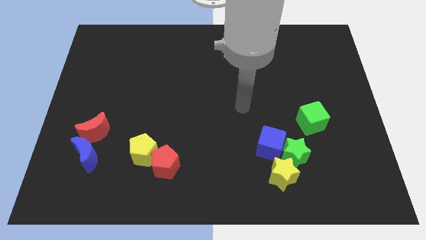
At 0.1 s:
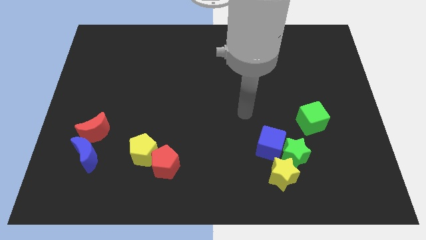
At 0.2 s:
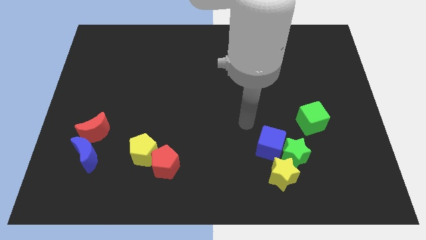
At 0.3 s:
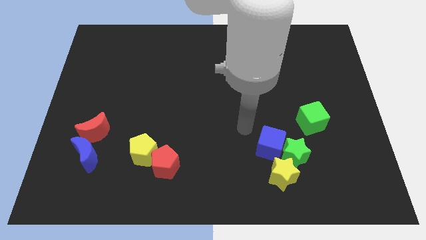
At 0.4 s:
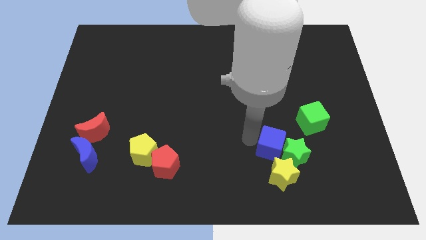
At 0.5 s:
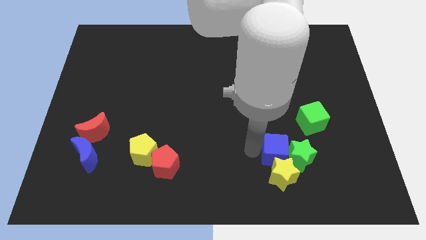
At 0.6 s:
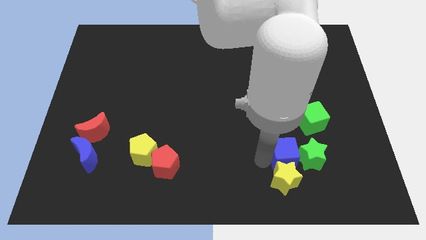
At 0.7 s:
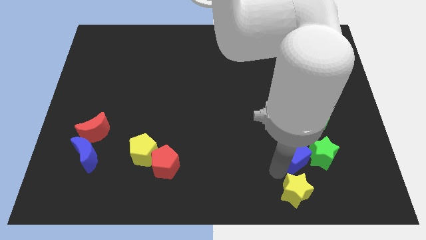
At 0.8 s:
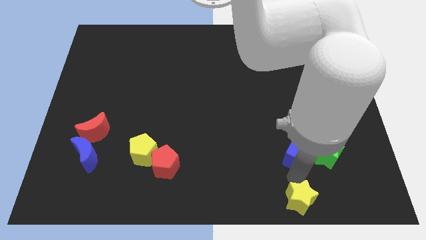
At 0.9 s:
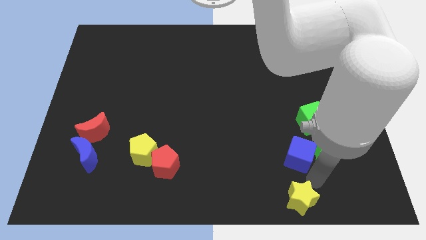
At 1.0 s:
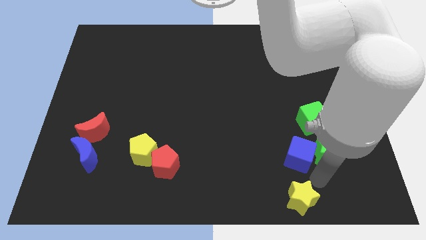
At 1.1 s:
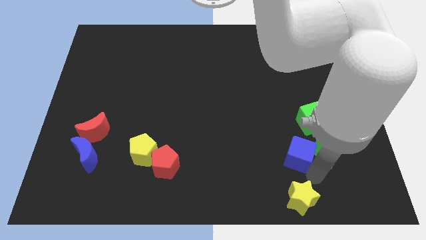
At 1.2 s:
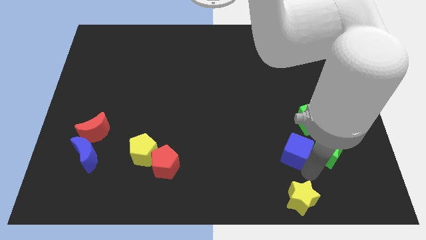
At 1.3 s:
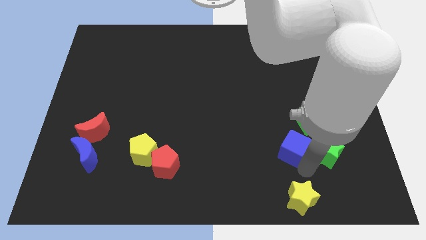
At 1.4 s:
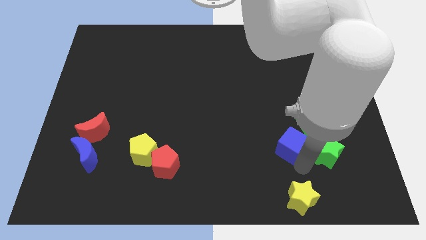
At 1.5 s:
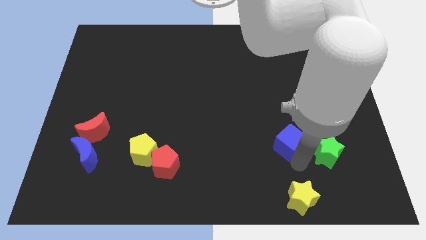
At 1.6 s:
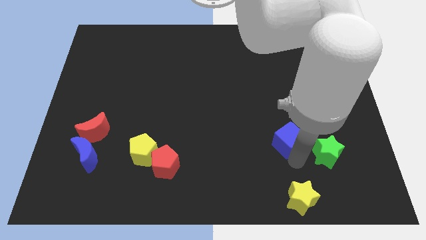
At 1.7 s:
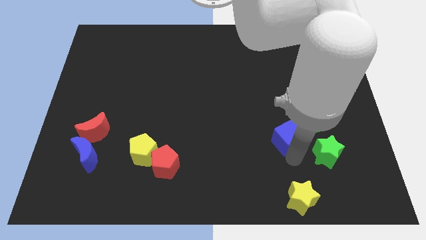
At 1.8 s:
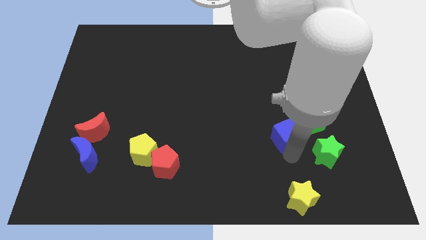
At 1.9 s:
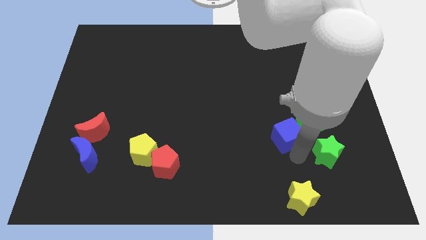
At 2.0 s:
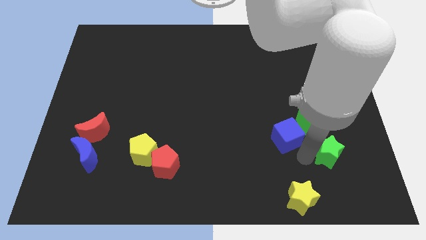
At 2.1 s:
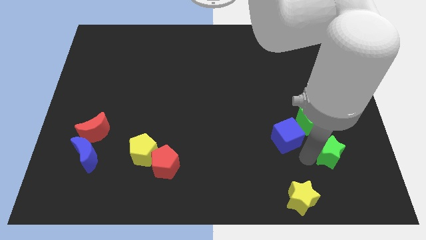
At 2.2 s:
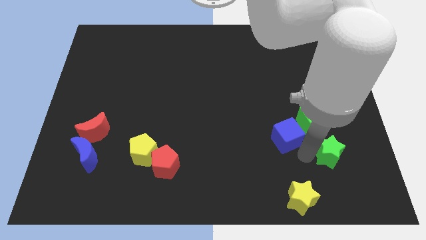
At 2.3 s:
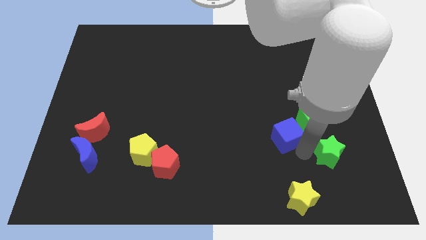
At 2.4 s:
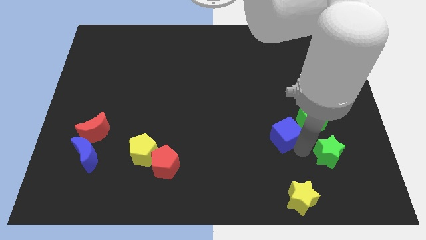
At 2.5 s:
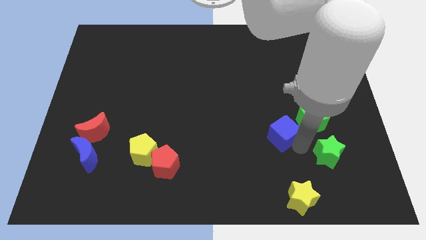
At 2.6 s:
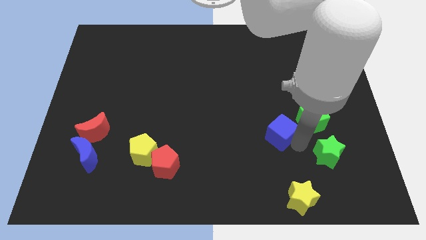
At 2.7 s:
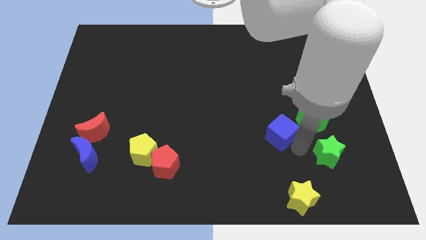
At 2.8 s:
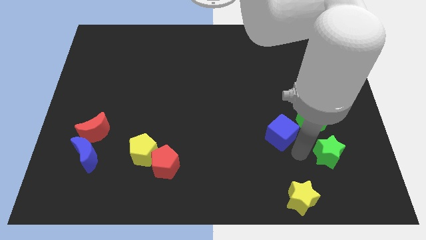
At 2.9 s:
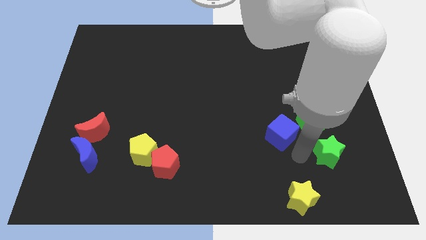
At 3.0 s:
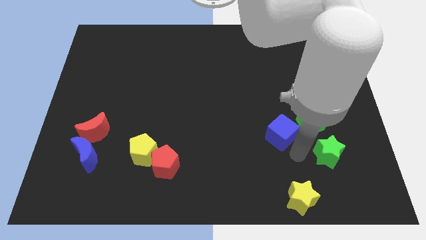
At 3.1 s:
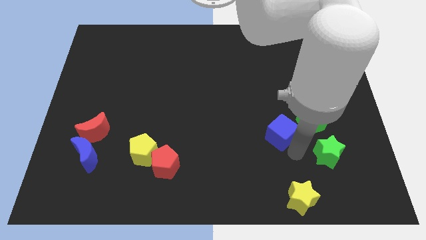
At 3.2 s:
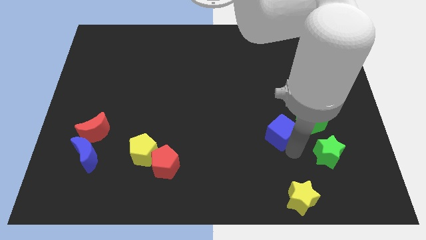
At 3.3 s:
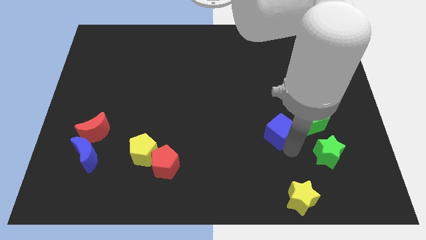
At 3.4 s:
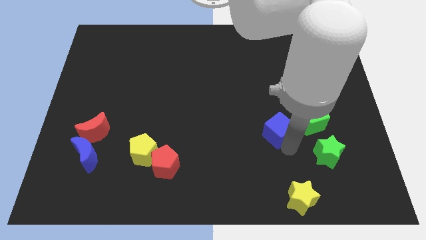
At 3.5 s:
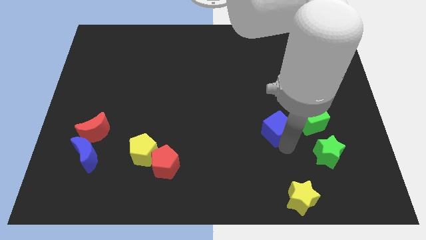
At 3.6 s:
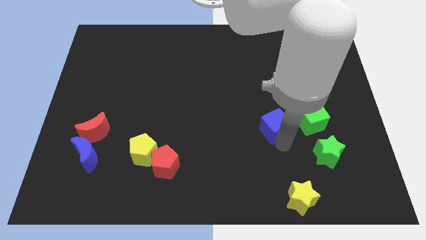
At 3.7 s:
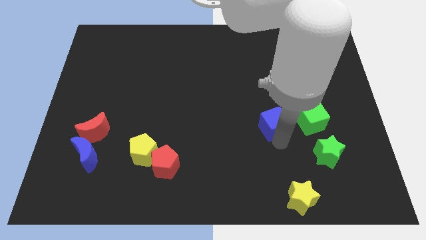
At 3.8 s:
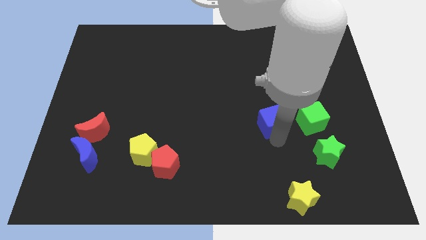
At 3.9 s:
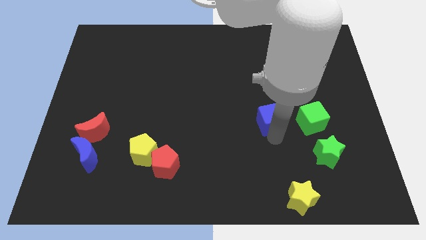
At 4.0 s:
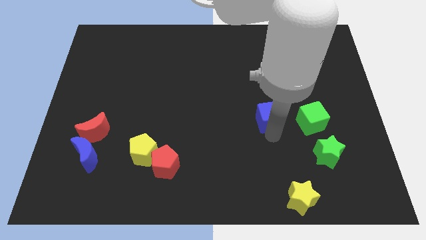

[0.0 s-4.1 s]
push the blue cube a bit up

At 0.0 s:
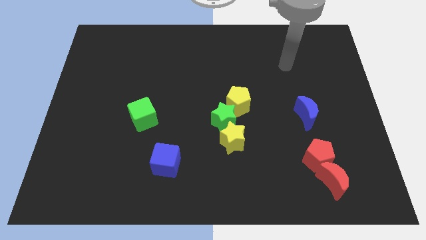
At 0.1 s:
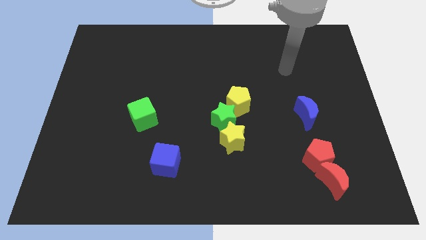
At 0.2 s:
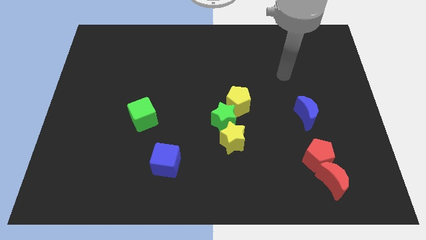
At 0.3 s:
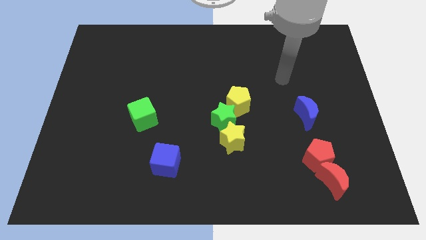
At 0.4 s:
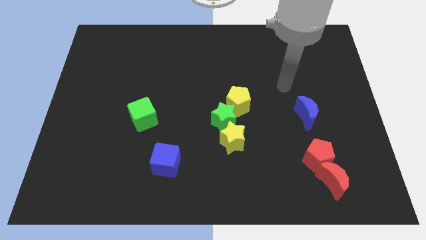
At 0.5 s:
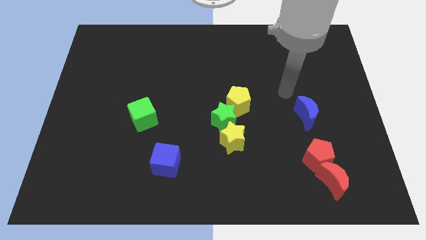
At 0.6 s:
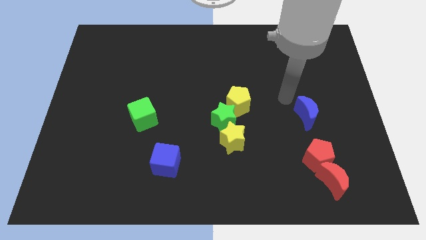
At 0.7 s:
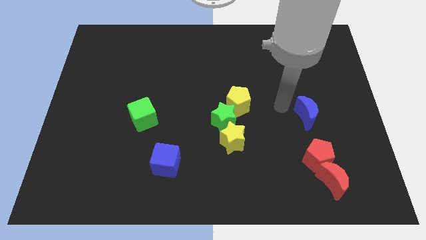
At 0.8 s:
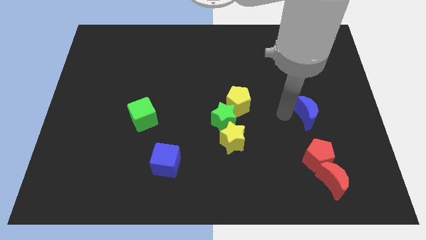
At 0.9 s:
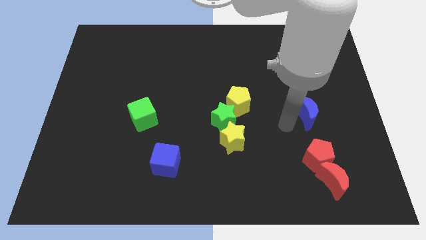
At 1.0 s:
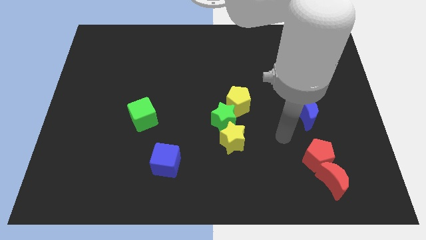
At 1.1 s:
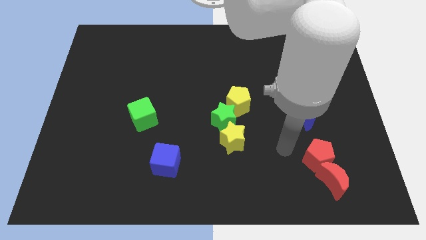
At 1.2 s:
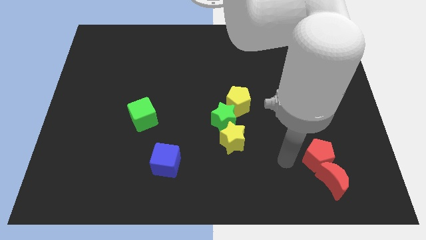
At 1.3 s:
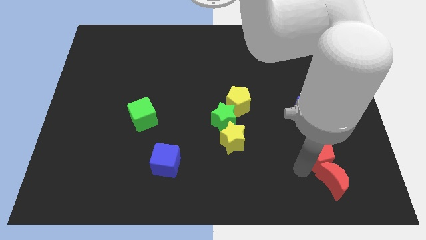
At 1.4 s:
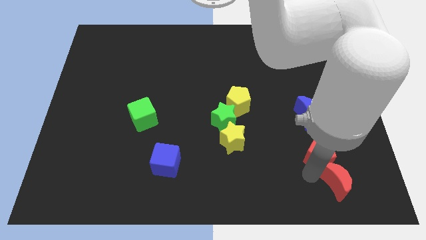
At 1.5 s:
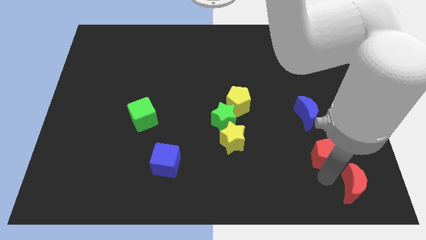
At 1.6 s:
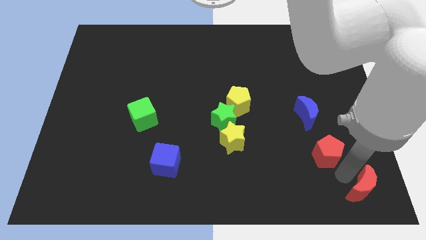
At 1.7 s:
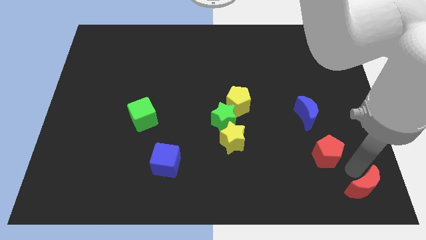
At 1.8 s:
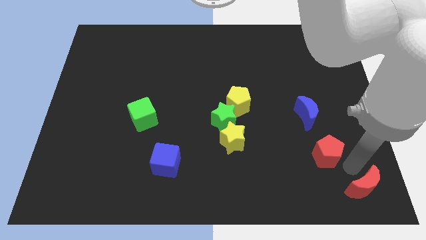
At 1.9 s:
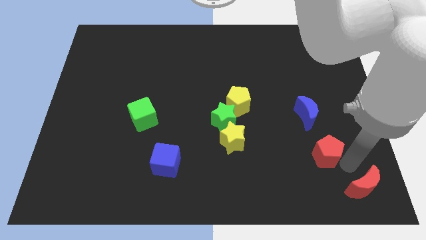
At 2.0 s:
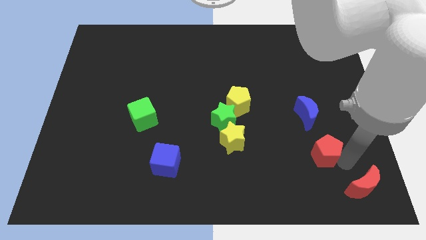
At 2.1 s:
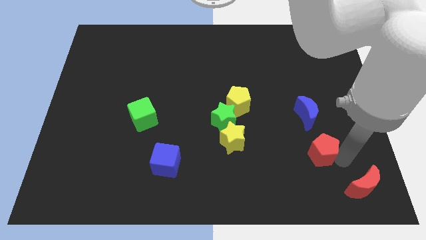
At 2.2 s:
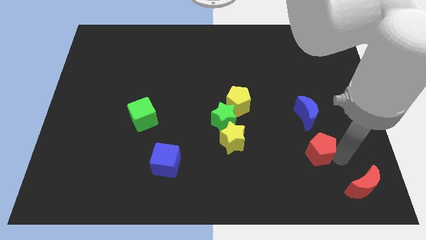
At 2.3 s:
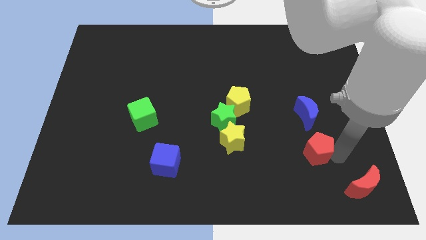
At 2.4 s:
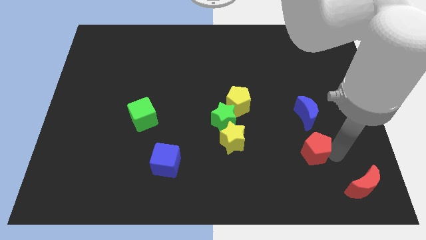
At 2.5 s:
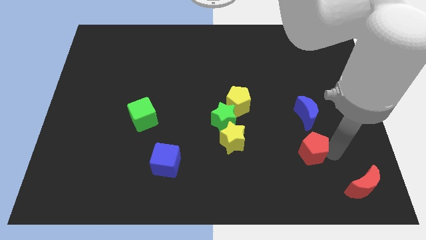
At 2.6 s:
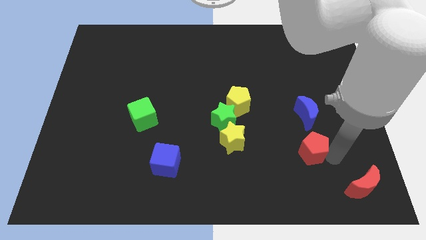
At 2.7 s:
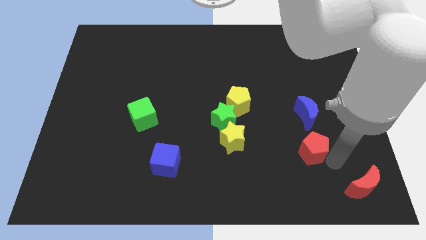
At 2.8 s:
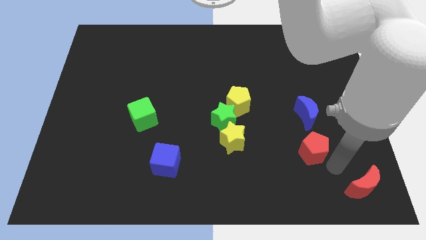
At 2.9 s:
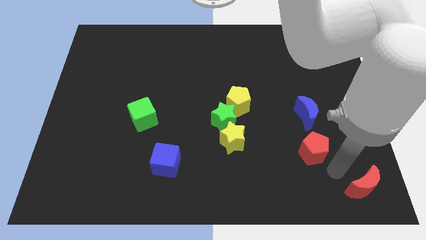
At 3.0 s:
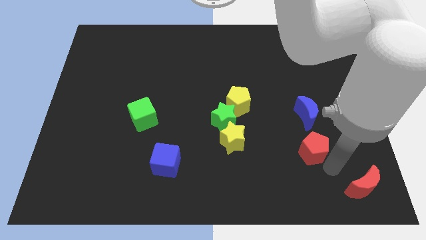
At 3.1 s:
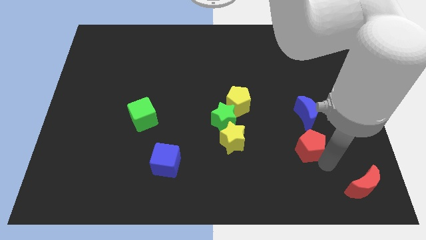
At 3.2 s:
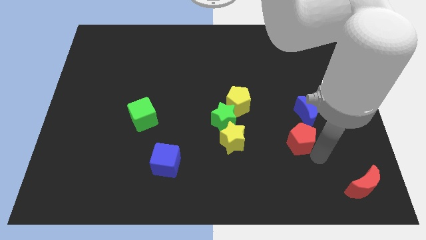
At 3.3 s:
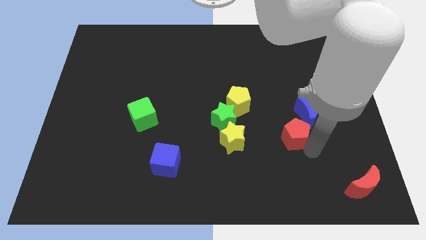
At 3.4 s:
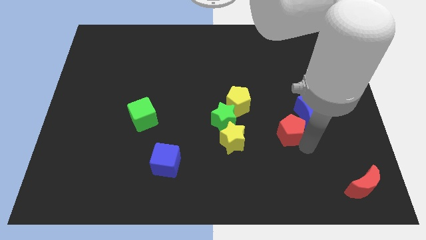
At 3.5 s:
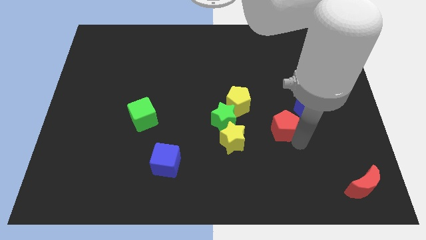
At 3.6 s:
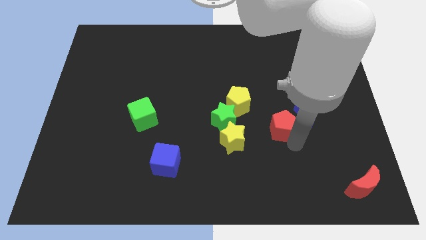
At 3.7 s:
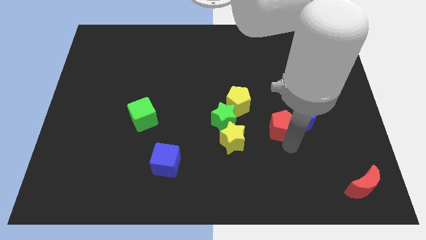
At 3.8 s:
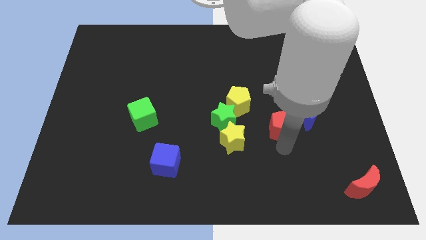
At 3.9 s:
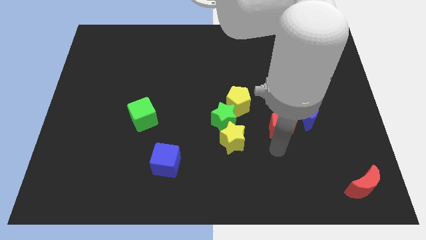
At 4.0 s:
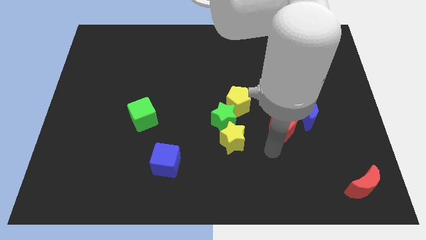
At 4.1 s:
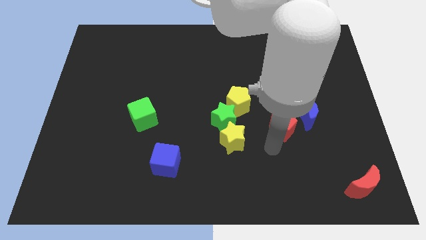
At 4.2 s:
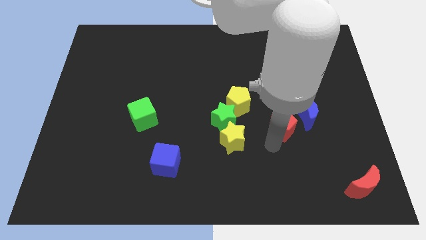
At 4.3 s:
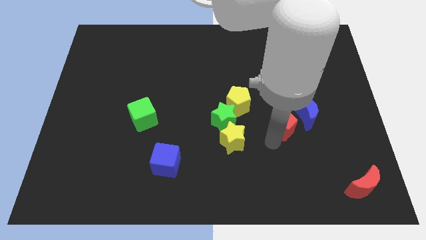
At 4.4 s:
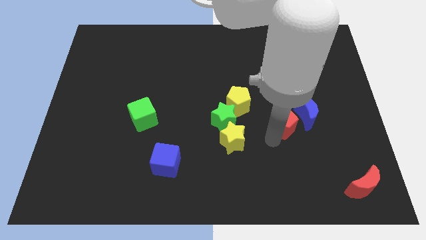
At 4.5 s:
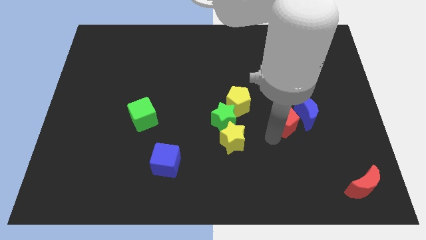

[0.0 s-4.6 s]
push the red pentagon up somewhat
